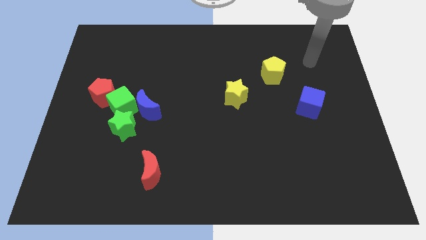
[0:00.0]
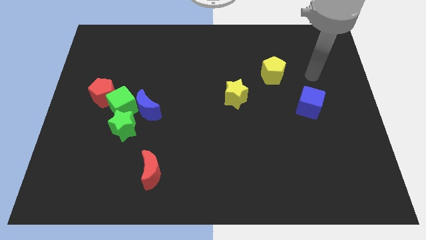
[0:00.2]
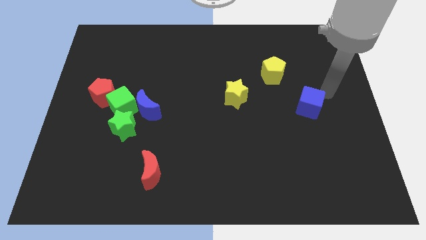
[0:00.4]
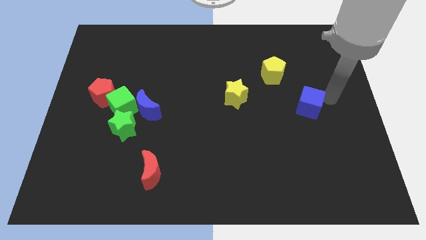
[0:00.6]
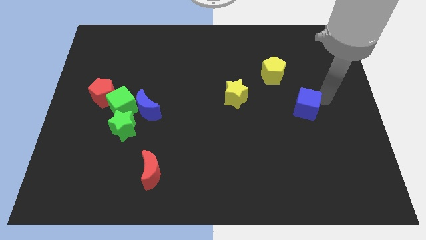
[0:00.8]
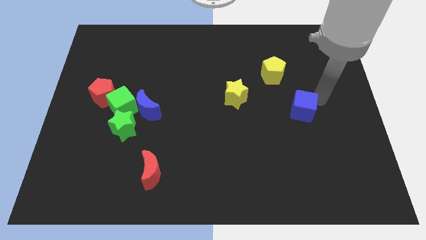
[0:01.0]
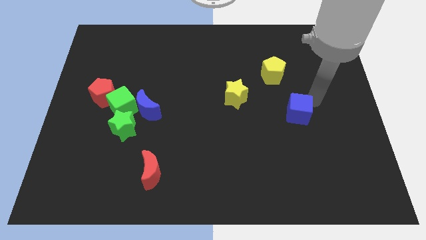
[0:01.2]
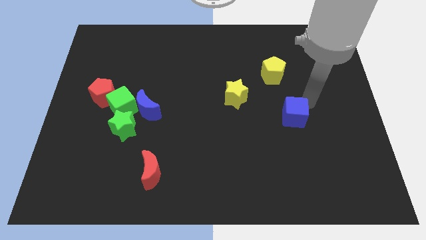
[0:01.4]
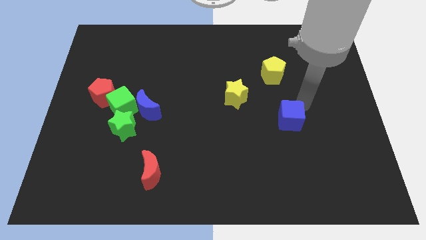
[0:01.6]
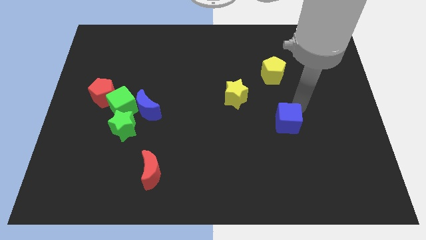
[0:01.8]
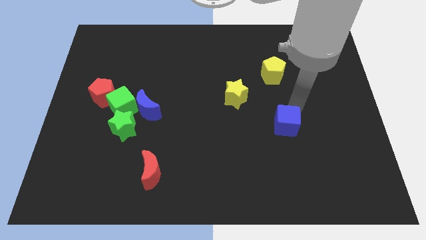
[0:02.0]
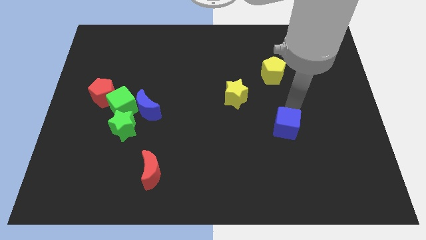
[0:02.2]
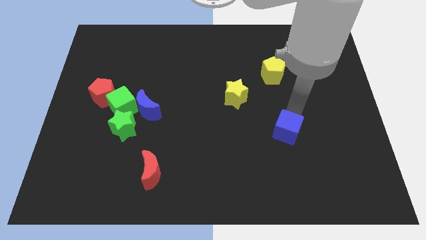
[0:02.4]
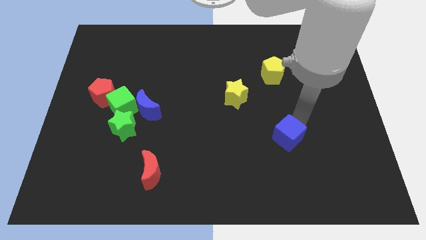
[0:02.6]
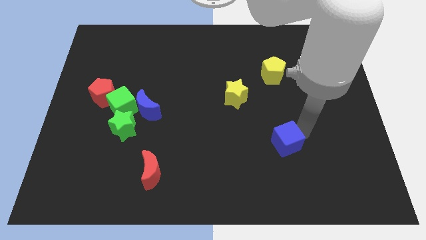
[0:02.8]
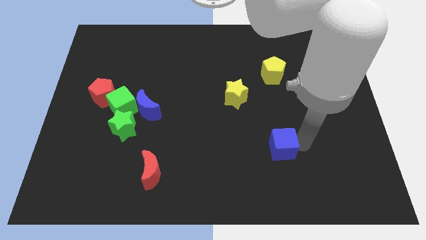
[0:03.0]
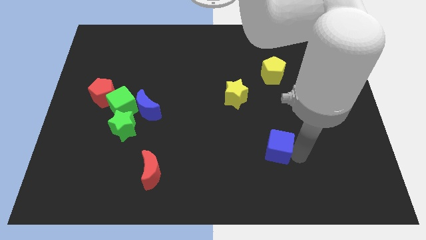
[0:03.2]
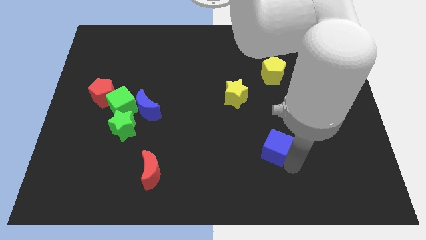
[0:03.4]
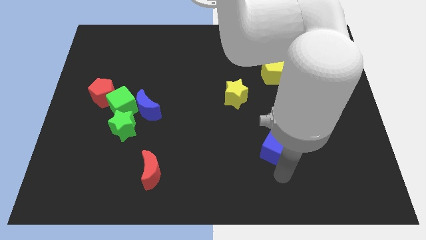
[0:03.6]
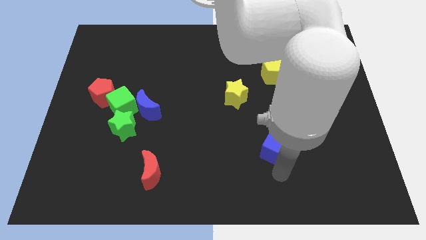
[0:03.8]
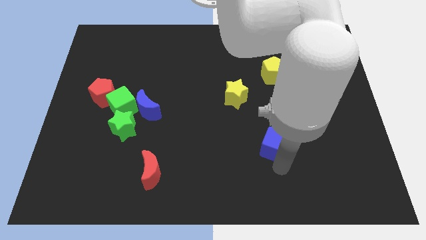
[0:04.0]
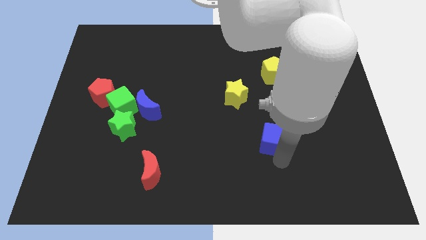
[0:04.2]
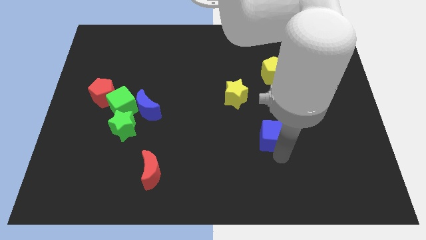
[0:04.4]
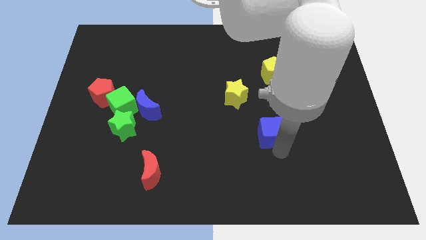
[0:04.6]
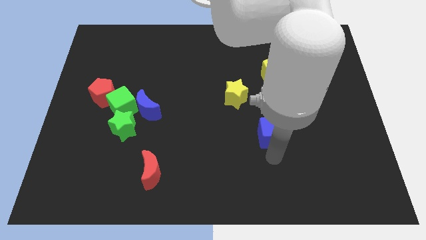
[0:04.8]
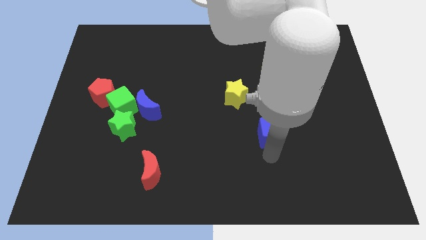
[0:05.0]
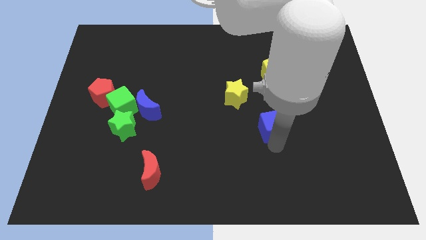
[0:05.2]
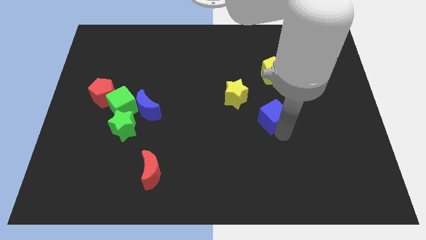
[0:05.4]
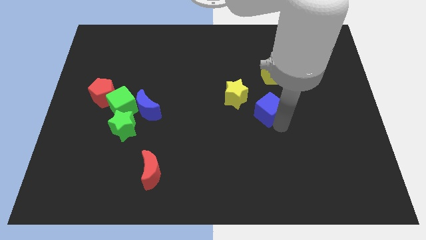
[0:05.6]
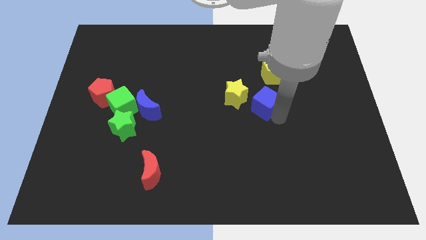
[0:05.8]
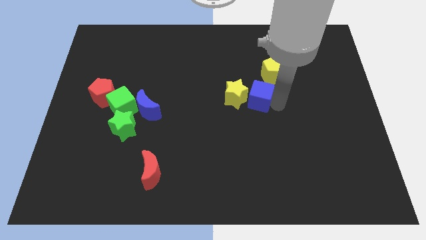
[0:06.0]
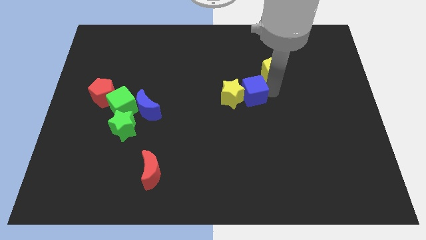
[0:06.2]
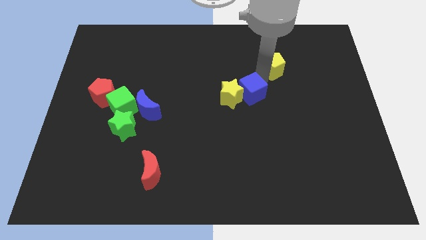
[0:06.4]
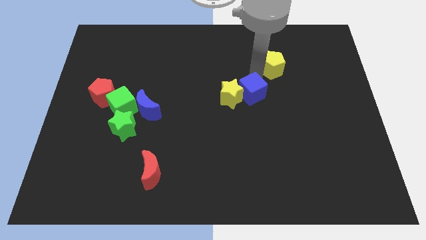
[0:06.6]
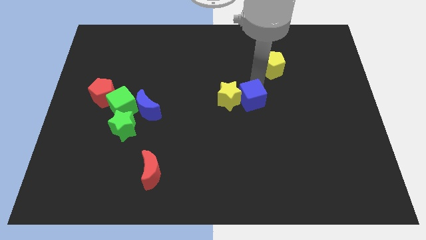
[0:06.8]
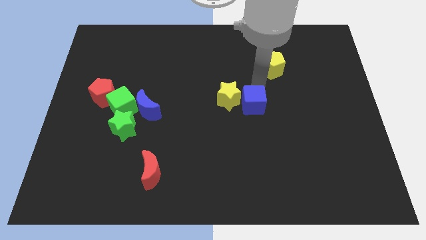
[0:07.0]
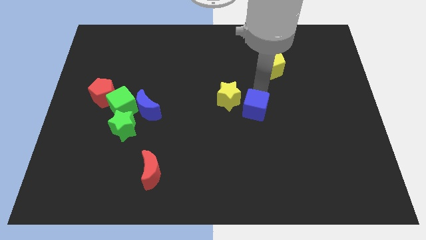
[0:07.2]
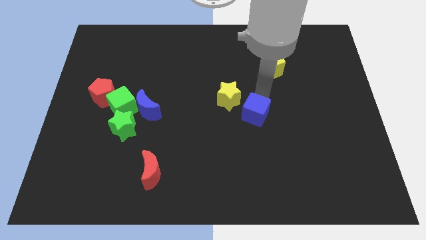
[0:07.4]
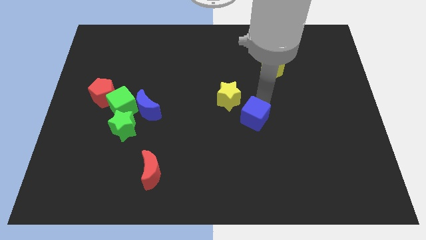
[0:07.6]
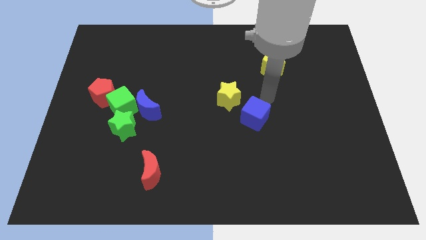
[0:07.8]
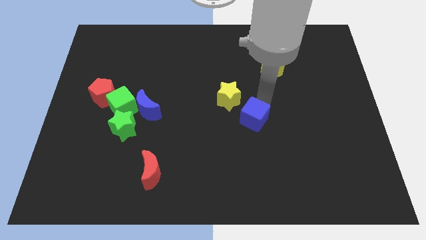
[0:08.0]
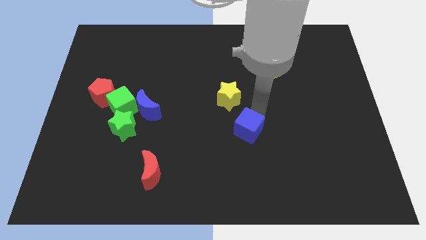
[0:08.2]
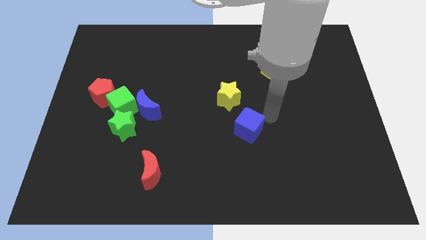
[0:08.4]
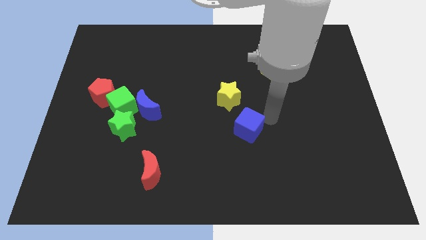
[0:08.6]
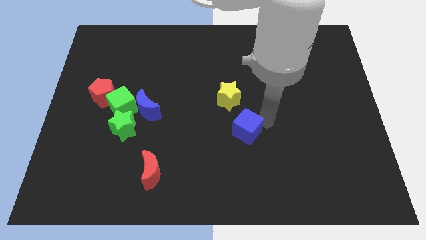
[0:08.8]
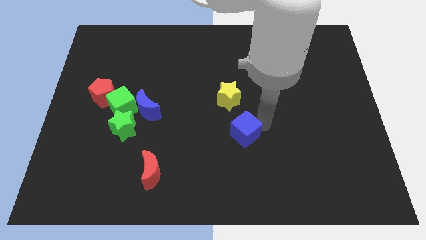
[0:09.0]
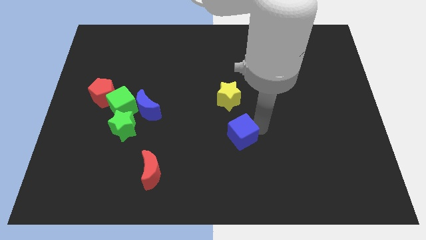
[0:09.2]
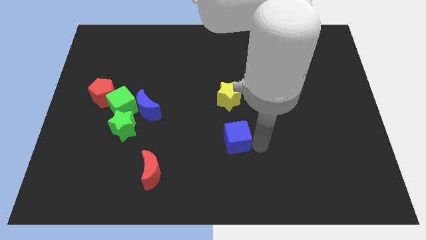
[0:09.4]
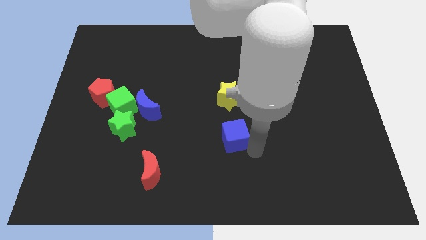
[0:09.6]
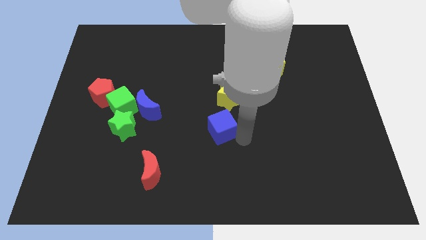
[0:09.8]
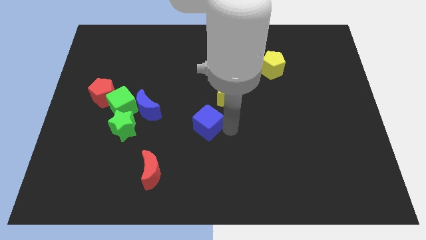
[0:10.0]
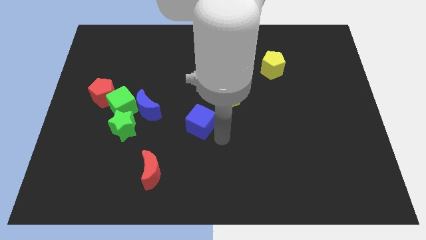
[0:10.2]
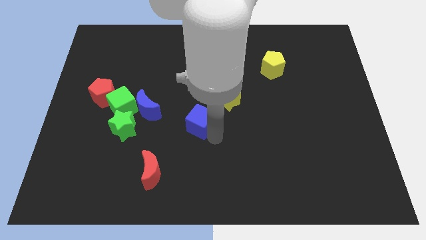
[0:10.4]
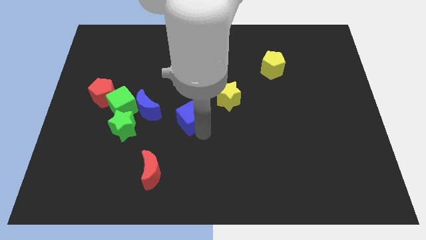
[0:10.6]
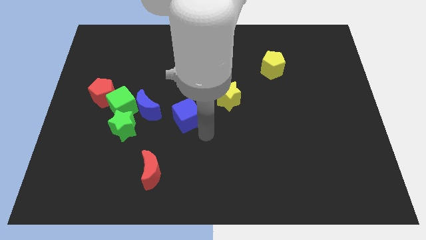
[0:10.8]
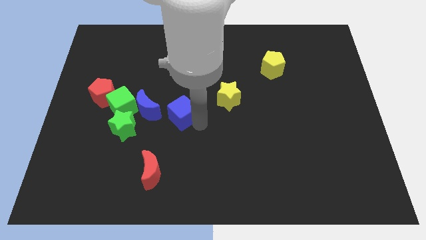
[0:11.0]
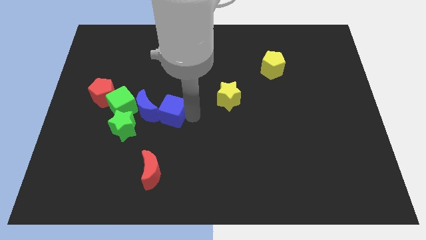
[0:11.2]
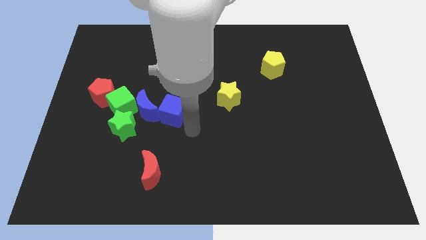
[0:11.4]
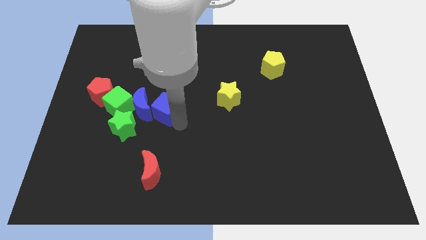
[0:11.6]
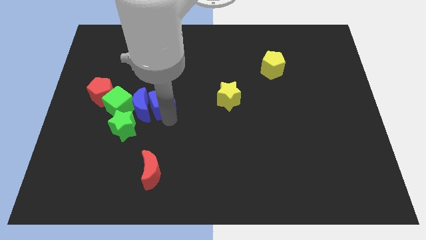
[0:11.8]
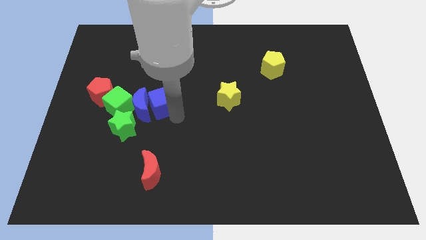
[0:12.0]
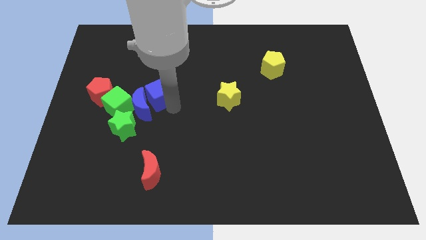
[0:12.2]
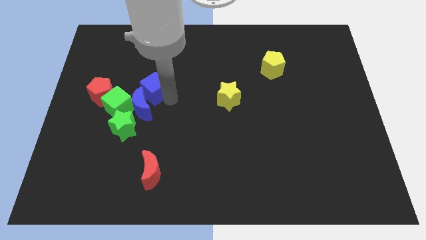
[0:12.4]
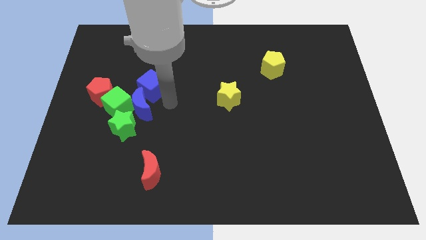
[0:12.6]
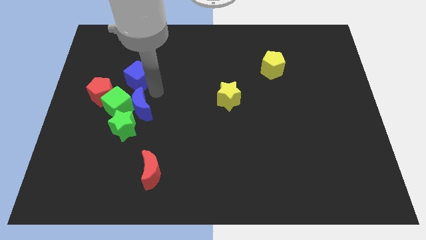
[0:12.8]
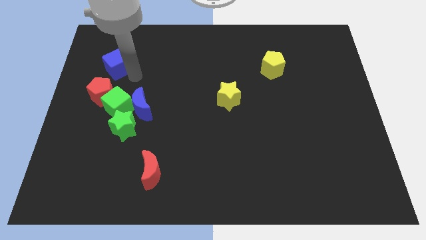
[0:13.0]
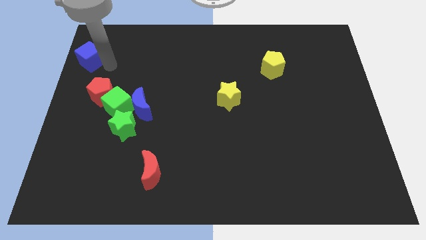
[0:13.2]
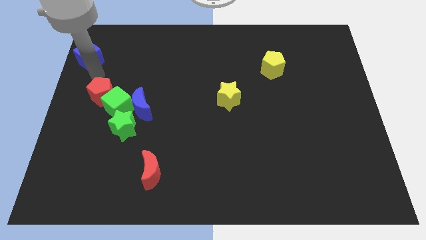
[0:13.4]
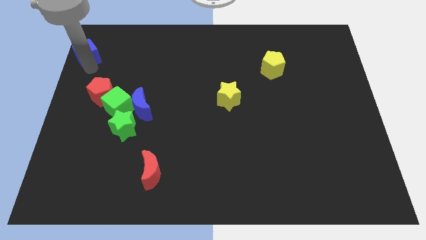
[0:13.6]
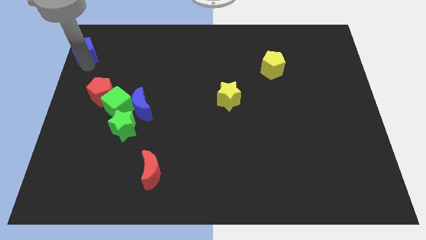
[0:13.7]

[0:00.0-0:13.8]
push the blue cube to the upper left corner

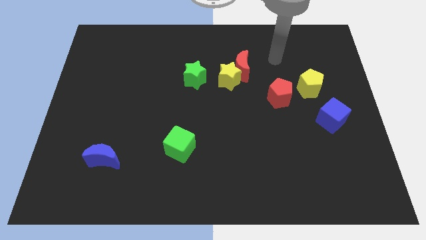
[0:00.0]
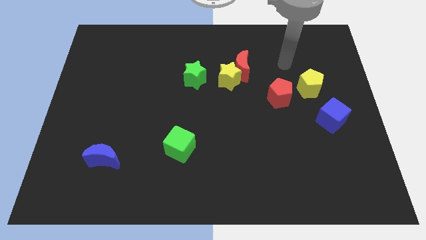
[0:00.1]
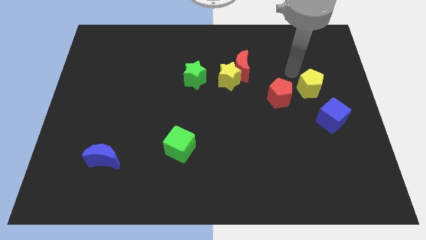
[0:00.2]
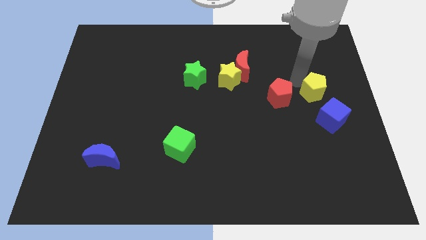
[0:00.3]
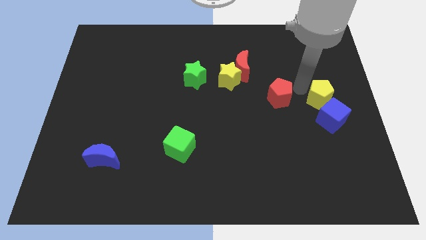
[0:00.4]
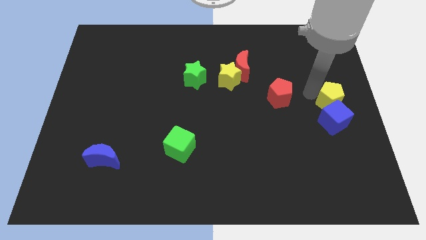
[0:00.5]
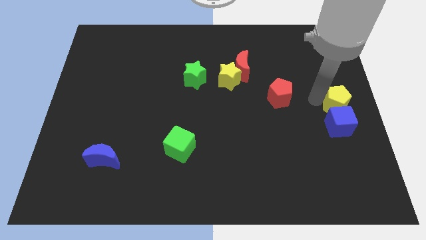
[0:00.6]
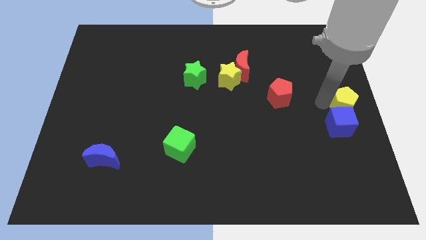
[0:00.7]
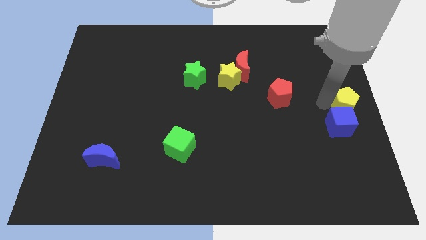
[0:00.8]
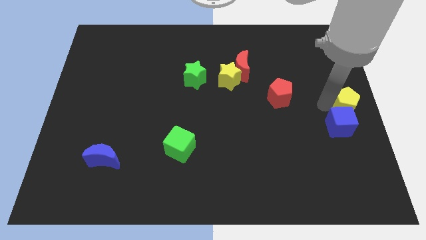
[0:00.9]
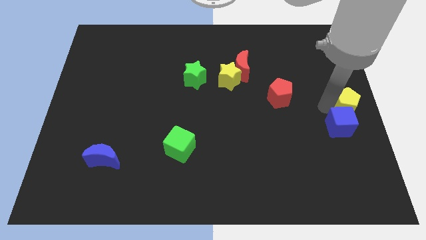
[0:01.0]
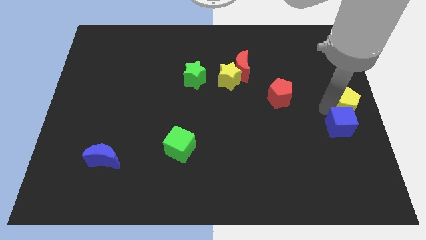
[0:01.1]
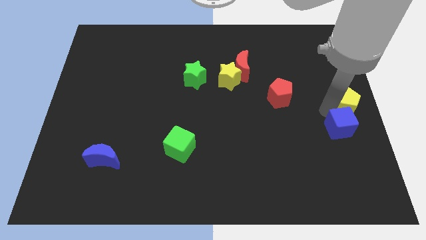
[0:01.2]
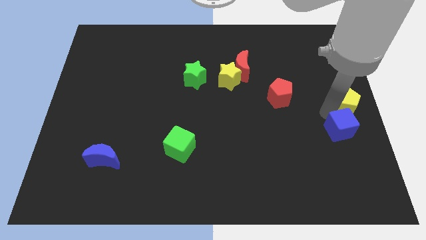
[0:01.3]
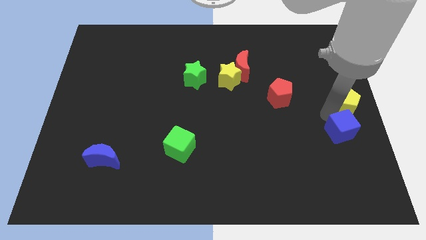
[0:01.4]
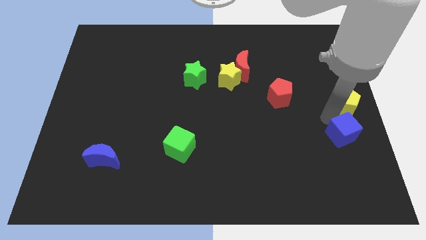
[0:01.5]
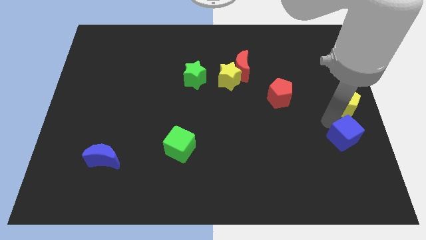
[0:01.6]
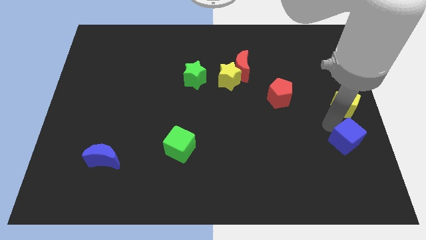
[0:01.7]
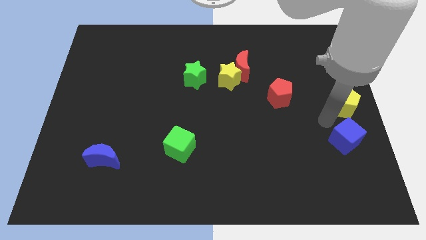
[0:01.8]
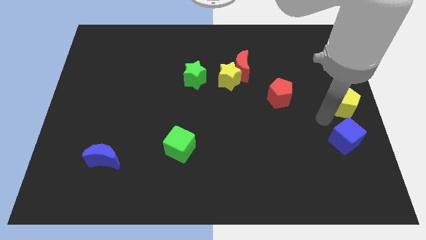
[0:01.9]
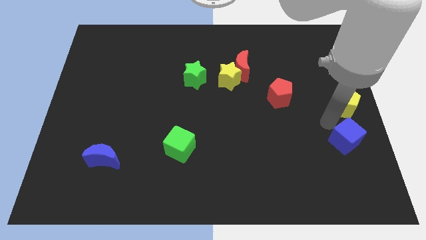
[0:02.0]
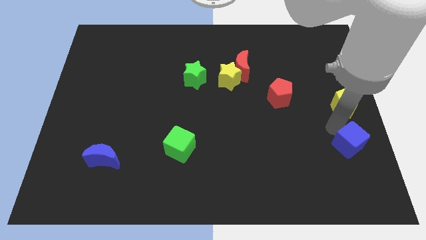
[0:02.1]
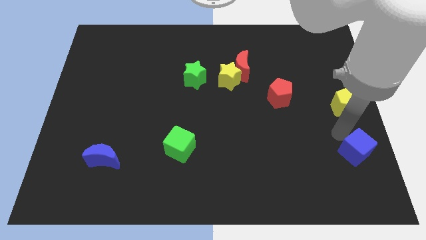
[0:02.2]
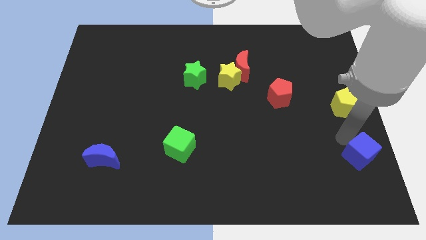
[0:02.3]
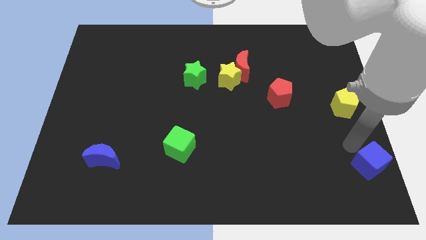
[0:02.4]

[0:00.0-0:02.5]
slide the blue cube to the bottom right
